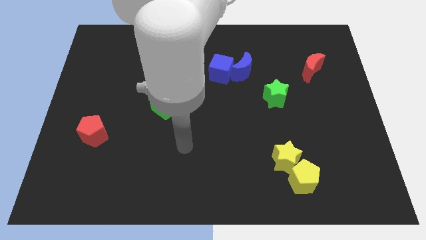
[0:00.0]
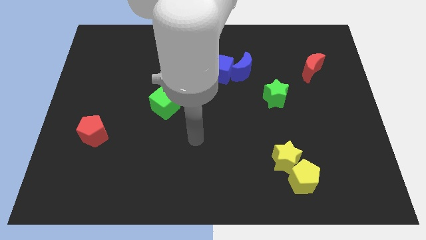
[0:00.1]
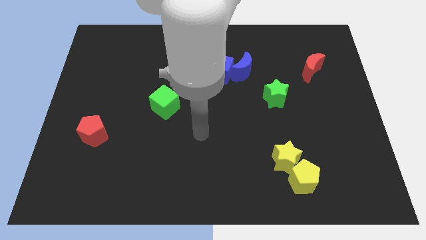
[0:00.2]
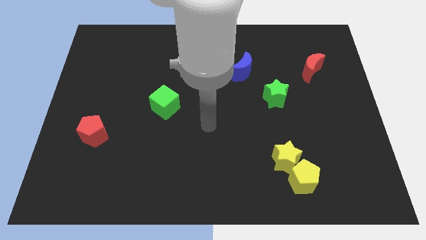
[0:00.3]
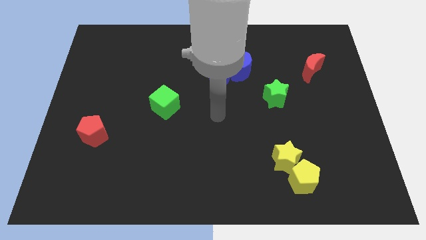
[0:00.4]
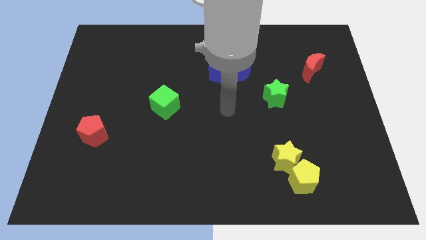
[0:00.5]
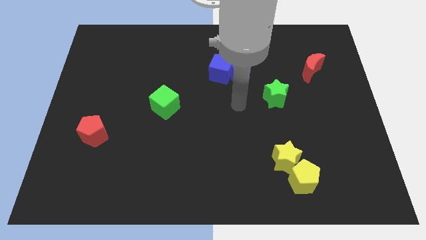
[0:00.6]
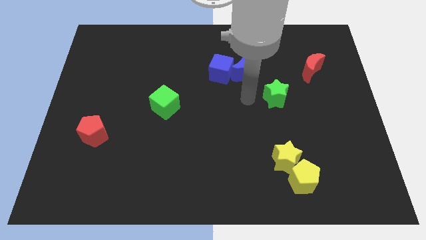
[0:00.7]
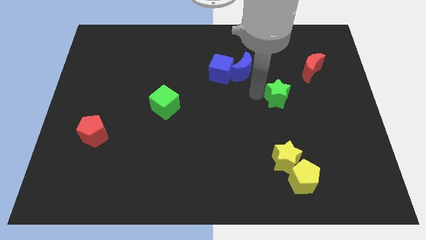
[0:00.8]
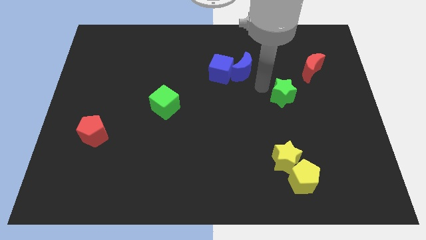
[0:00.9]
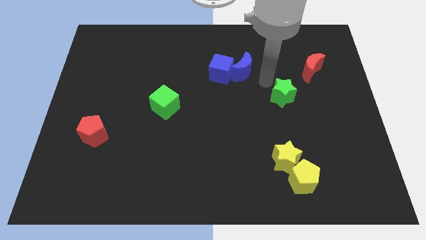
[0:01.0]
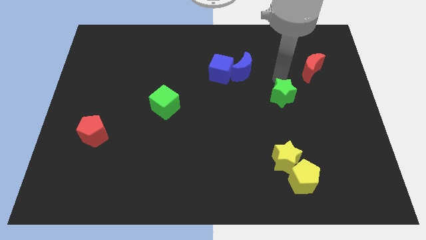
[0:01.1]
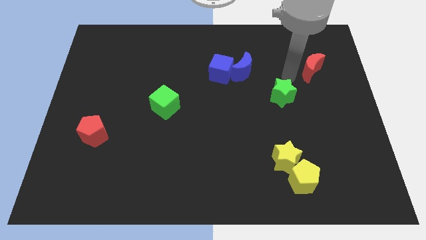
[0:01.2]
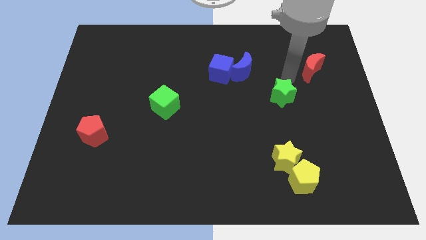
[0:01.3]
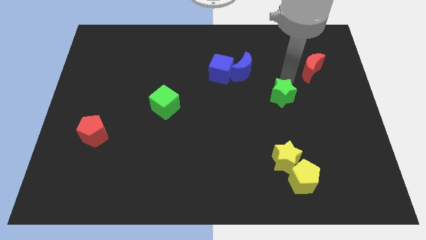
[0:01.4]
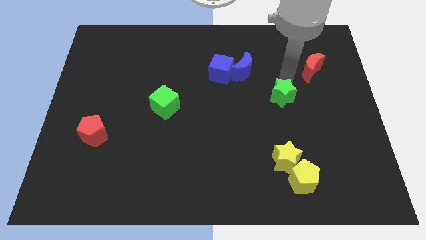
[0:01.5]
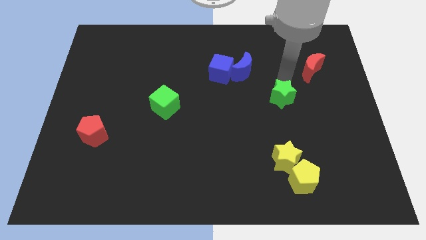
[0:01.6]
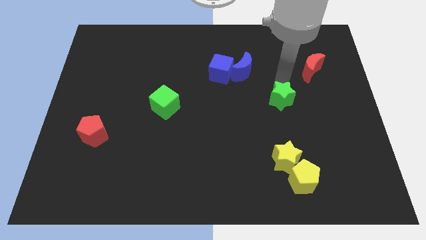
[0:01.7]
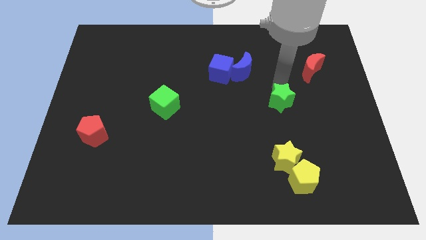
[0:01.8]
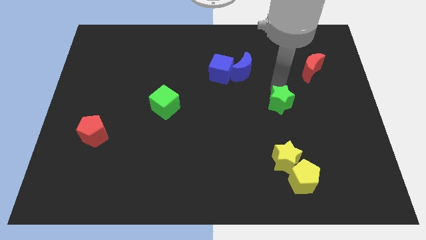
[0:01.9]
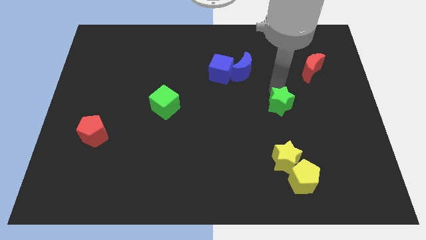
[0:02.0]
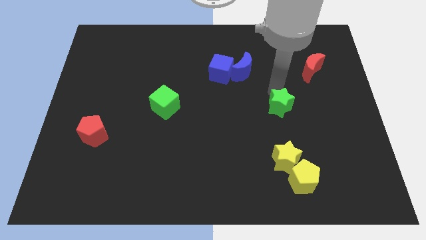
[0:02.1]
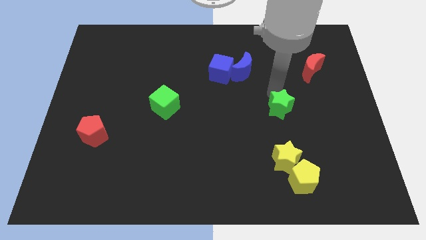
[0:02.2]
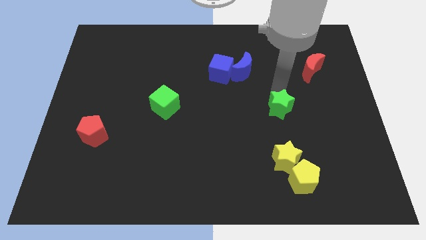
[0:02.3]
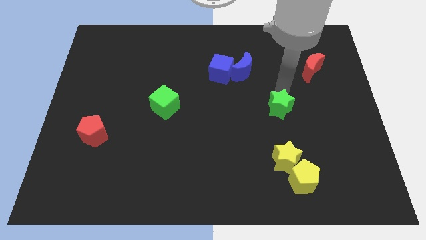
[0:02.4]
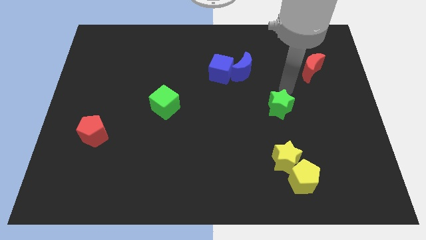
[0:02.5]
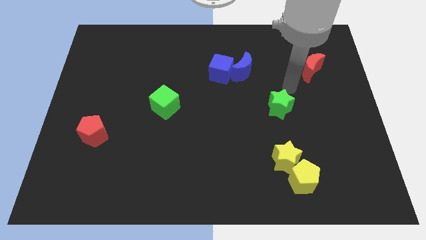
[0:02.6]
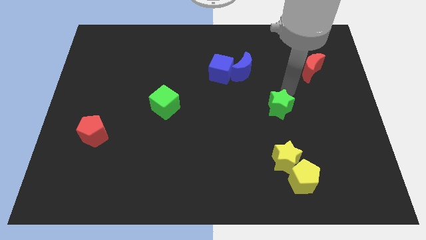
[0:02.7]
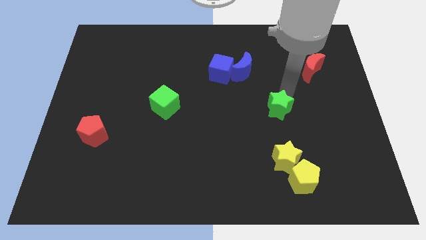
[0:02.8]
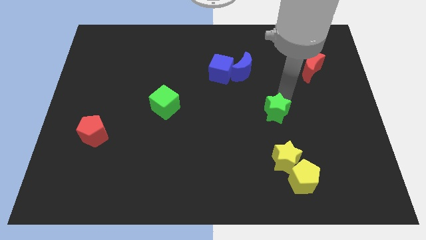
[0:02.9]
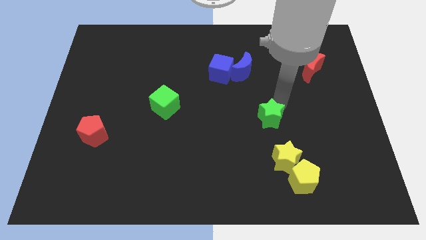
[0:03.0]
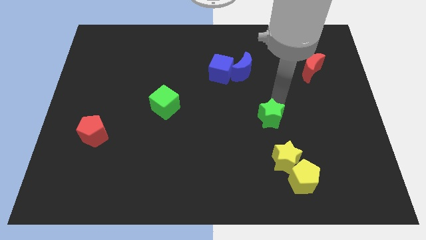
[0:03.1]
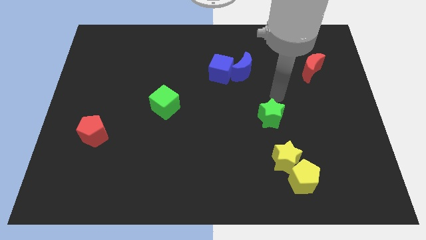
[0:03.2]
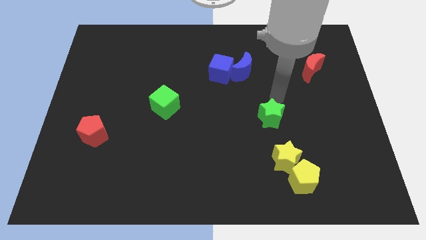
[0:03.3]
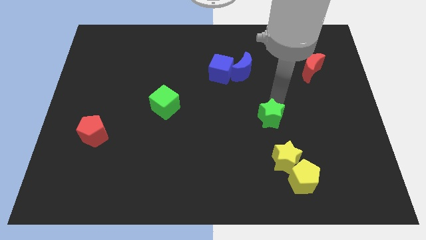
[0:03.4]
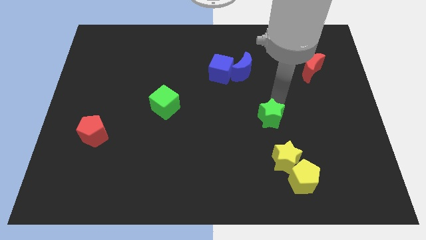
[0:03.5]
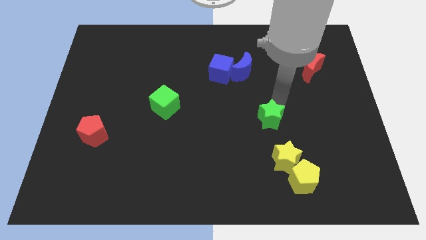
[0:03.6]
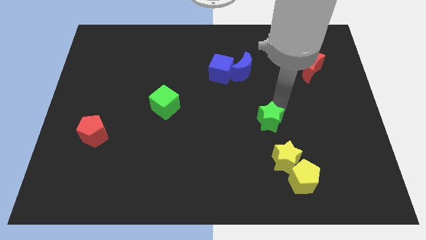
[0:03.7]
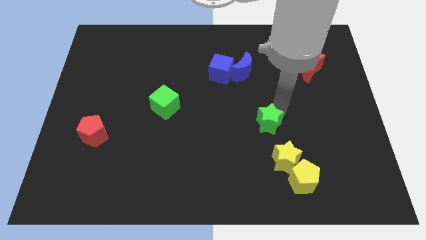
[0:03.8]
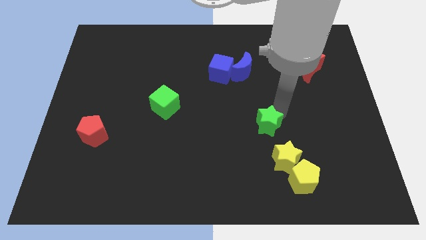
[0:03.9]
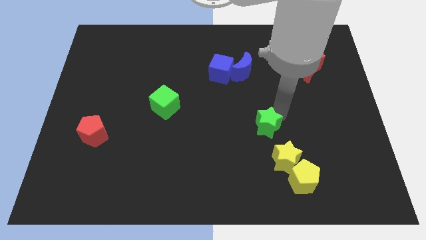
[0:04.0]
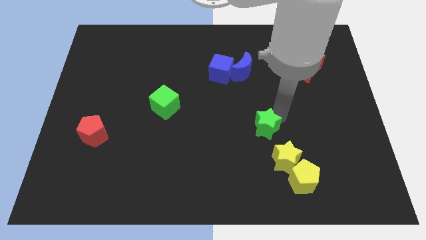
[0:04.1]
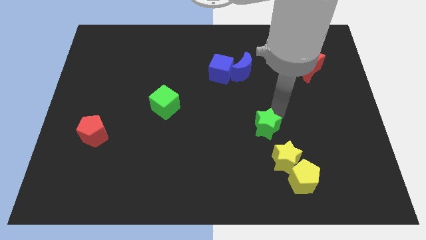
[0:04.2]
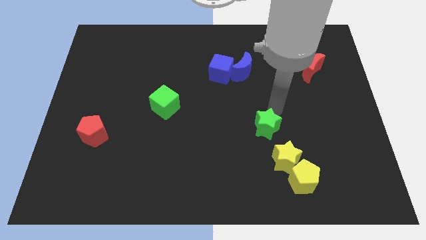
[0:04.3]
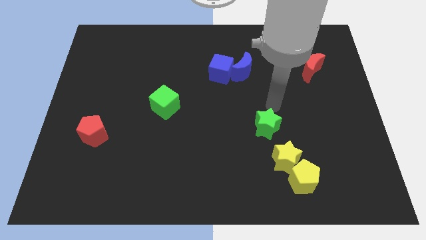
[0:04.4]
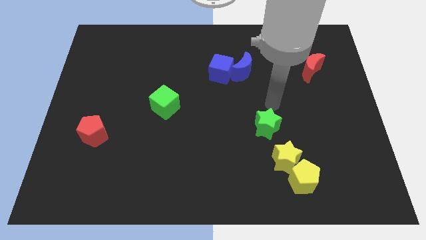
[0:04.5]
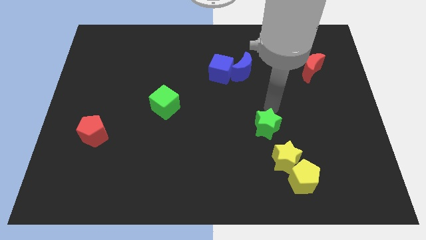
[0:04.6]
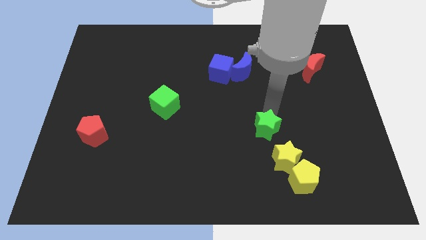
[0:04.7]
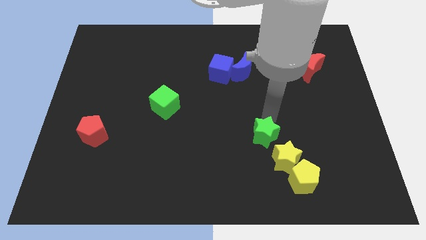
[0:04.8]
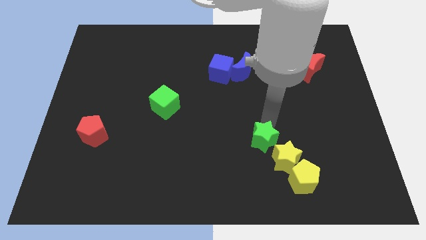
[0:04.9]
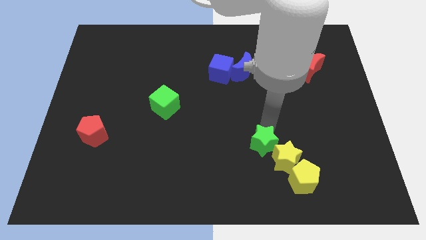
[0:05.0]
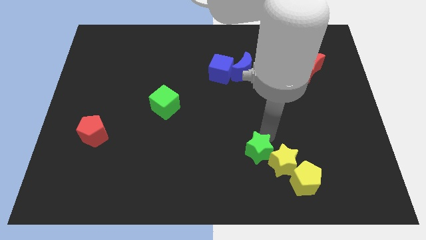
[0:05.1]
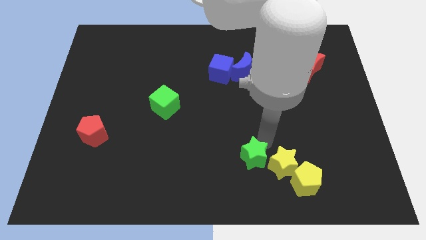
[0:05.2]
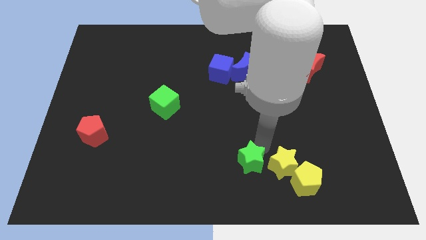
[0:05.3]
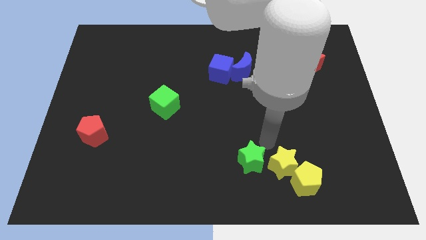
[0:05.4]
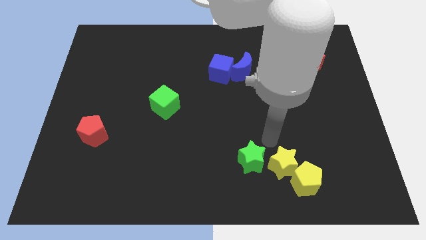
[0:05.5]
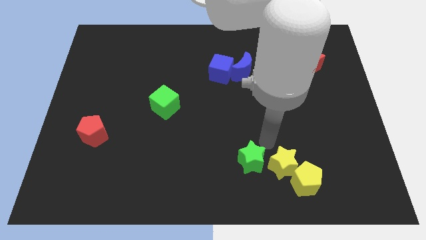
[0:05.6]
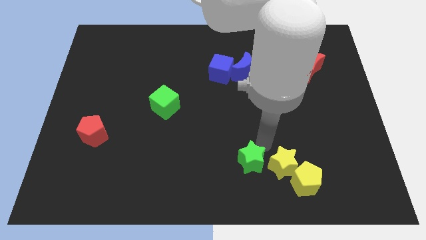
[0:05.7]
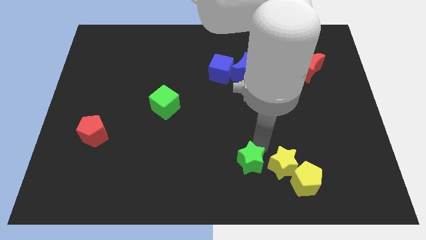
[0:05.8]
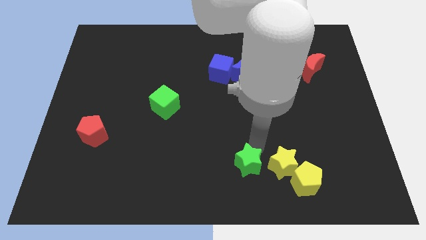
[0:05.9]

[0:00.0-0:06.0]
put the green star to the bottom
